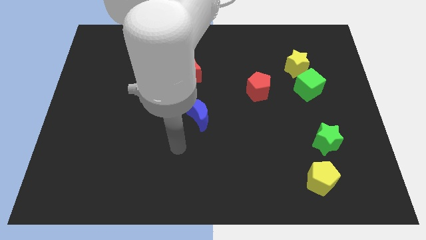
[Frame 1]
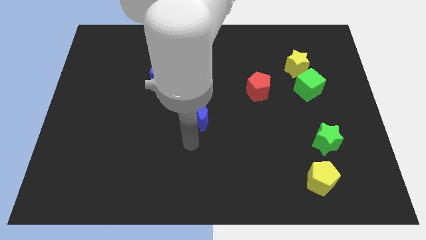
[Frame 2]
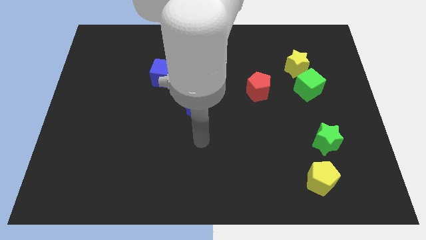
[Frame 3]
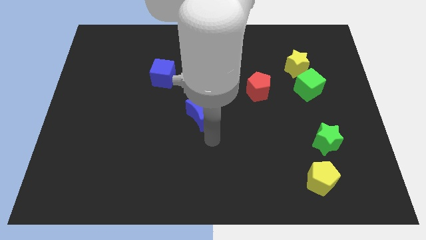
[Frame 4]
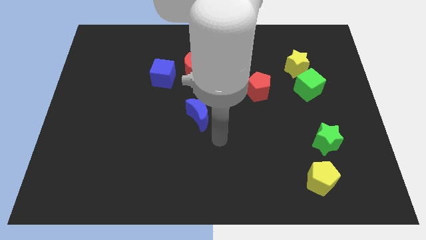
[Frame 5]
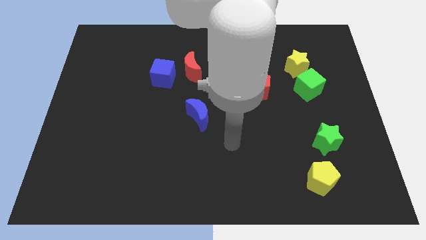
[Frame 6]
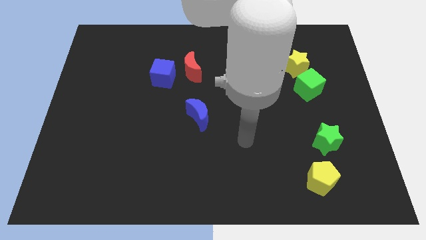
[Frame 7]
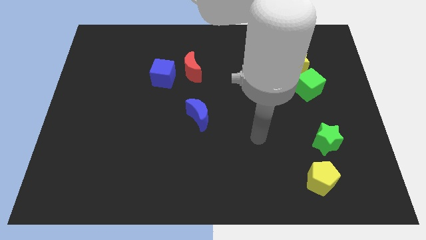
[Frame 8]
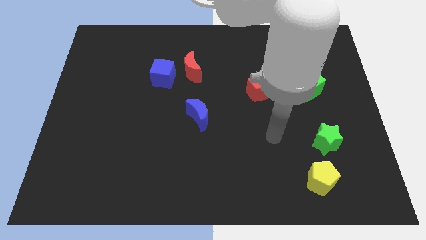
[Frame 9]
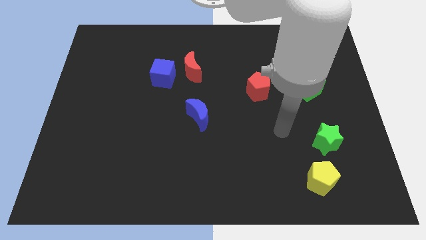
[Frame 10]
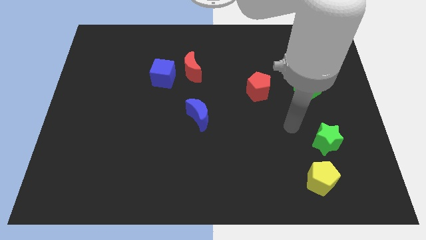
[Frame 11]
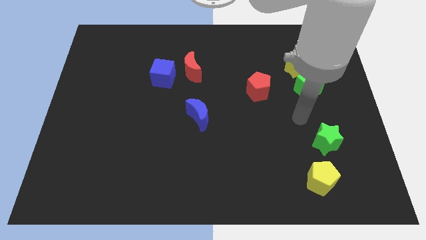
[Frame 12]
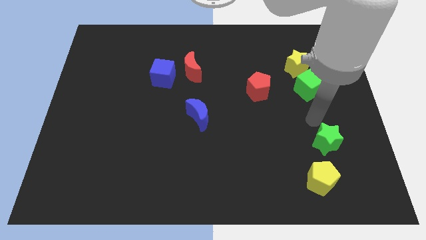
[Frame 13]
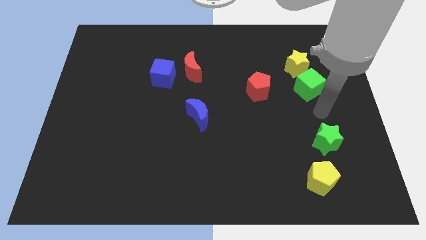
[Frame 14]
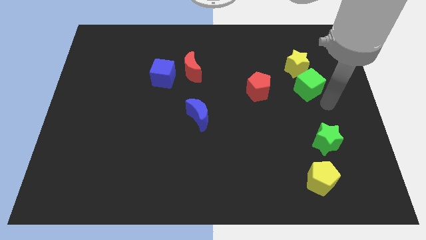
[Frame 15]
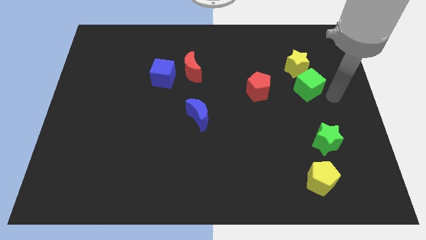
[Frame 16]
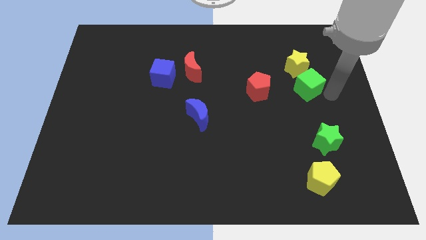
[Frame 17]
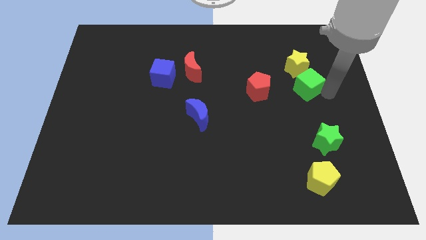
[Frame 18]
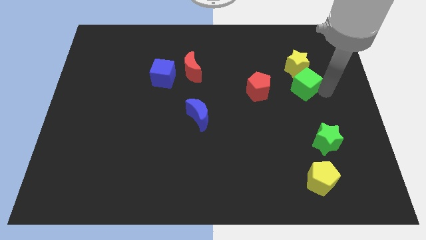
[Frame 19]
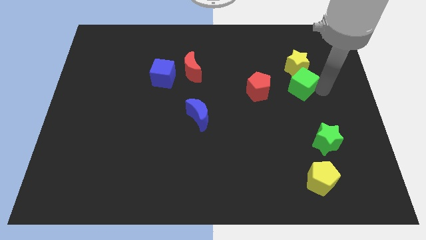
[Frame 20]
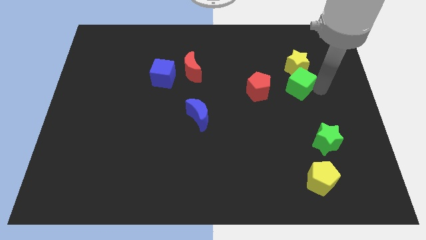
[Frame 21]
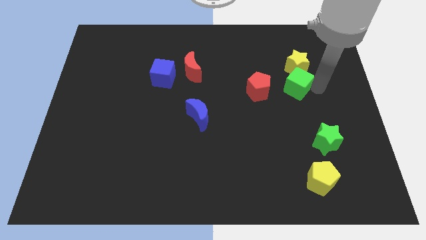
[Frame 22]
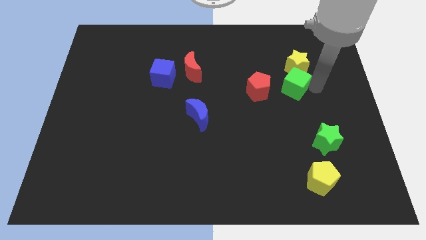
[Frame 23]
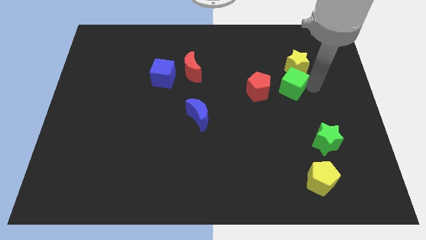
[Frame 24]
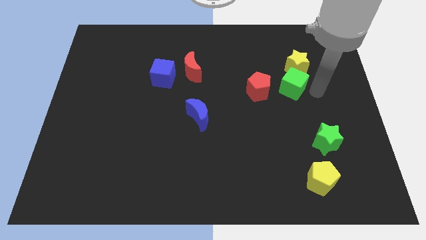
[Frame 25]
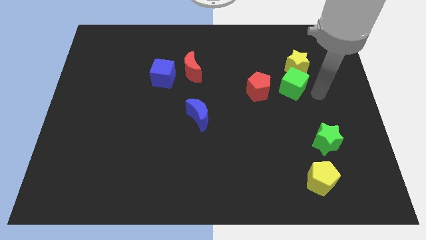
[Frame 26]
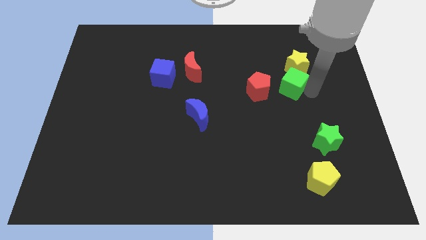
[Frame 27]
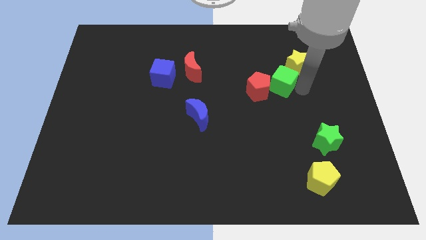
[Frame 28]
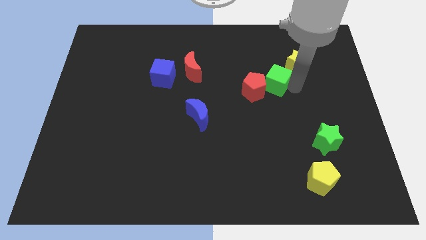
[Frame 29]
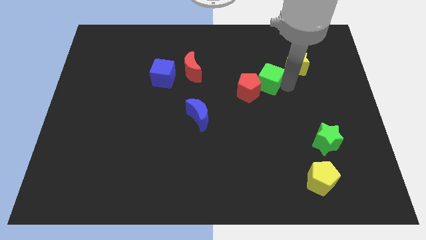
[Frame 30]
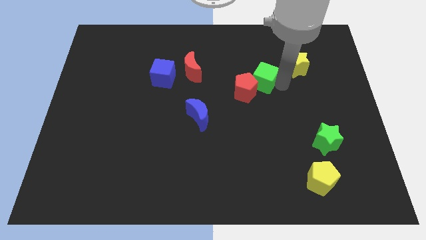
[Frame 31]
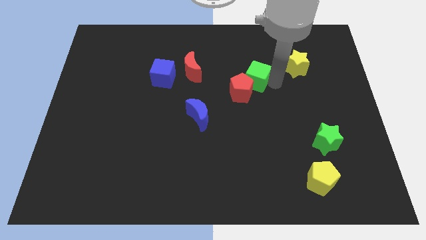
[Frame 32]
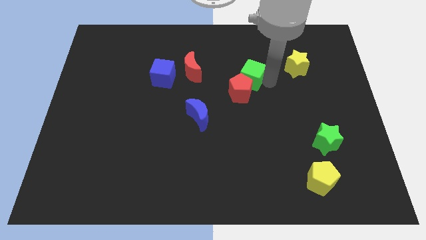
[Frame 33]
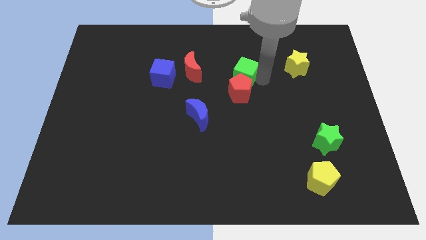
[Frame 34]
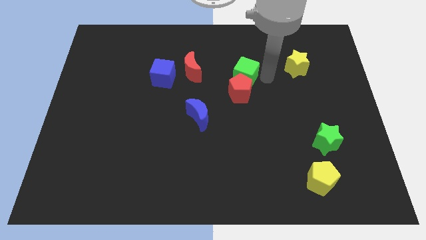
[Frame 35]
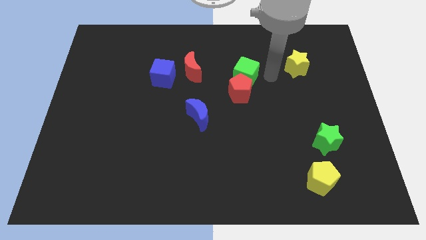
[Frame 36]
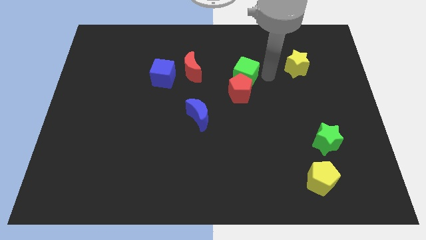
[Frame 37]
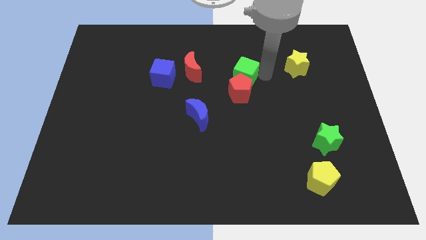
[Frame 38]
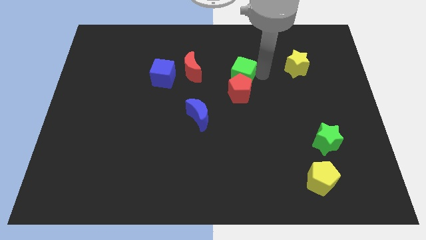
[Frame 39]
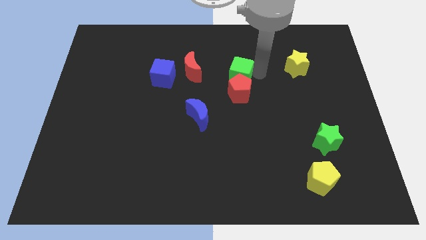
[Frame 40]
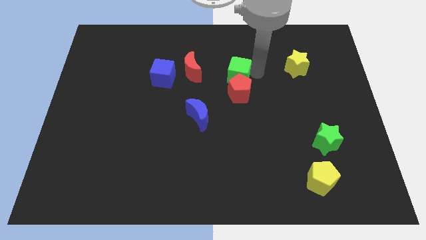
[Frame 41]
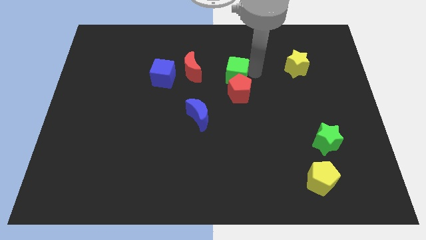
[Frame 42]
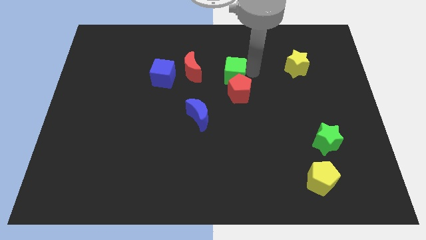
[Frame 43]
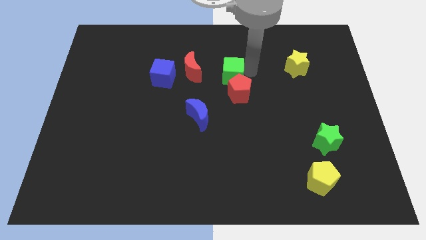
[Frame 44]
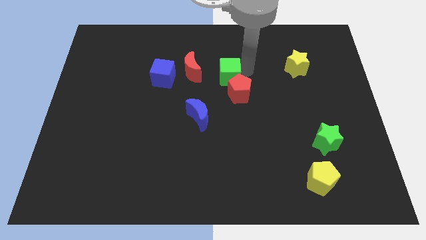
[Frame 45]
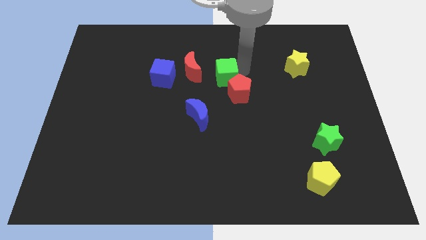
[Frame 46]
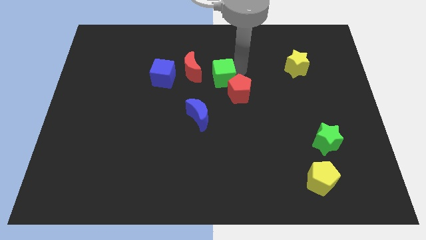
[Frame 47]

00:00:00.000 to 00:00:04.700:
push the green cube left

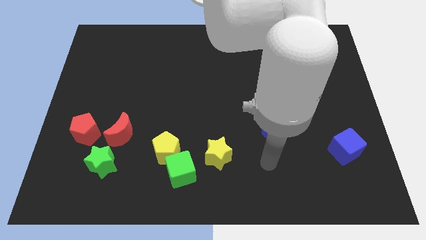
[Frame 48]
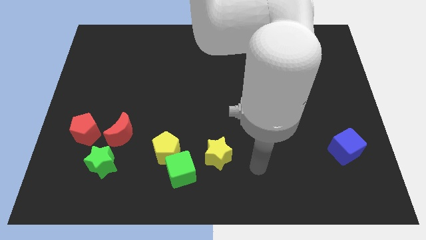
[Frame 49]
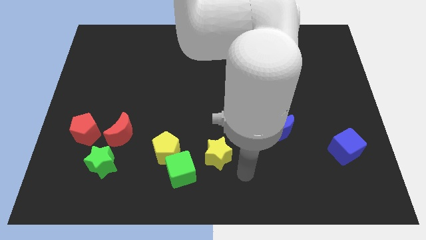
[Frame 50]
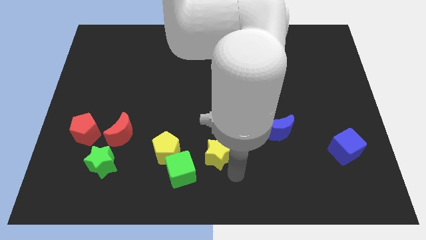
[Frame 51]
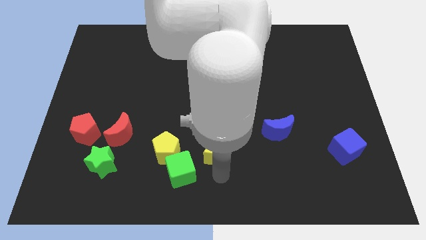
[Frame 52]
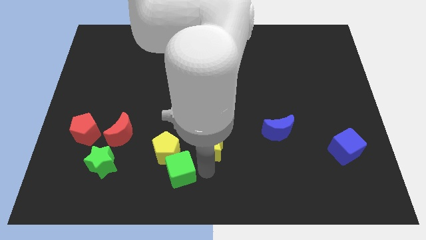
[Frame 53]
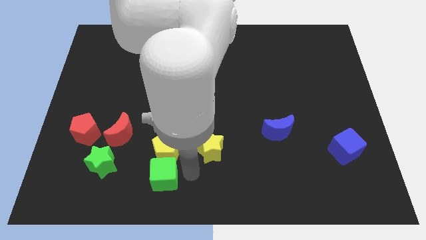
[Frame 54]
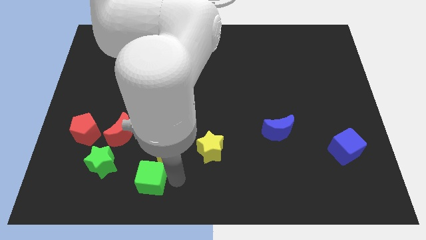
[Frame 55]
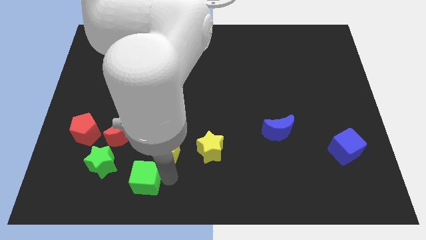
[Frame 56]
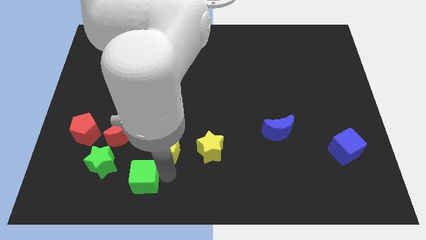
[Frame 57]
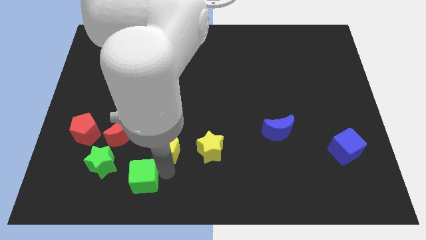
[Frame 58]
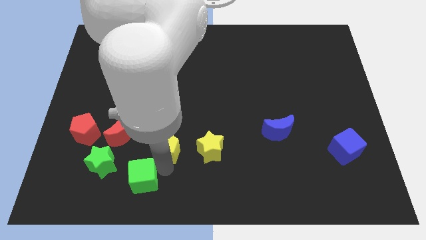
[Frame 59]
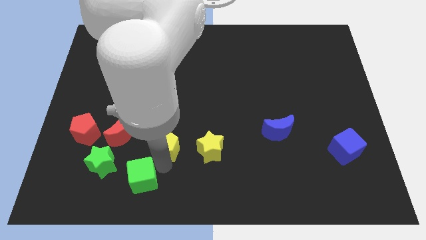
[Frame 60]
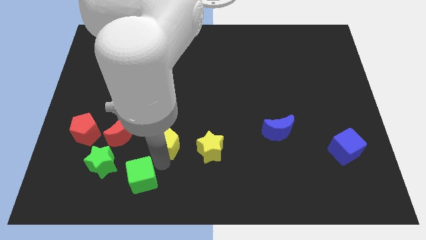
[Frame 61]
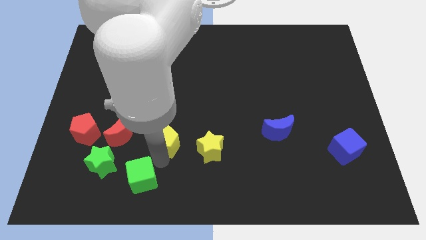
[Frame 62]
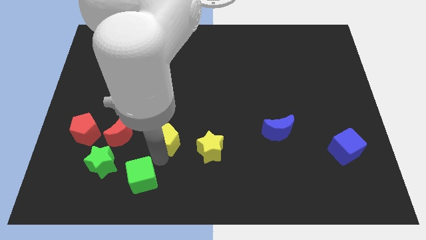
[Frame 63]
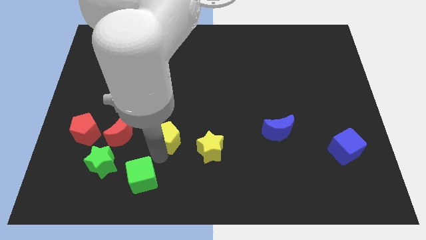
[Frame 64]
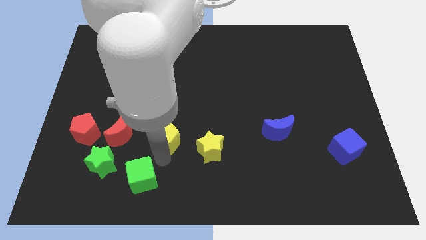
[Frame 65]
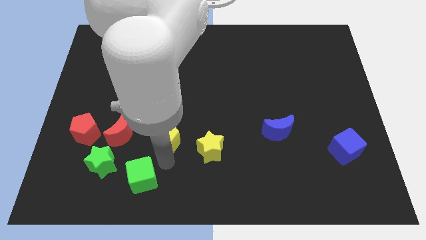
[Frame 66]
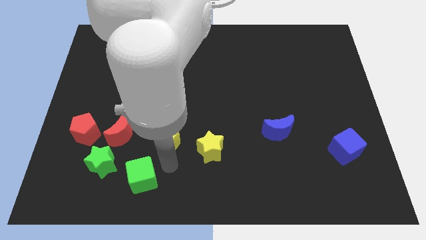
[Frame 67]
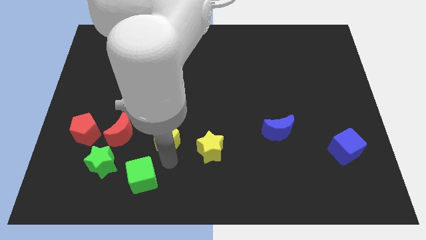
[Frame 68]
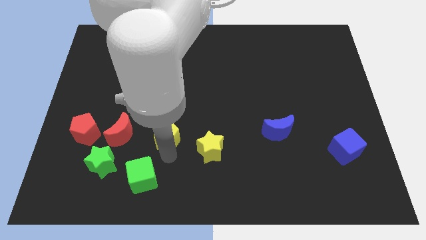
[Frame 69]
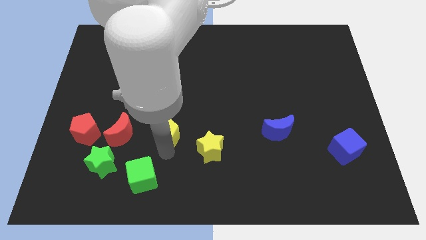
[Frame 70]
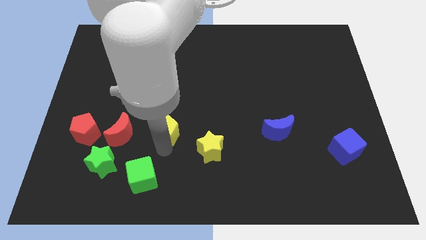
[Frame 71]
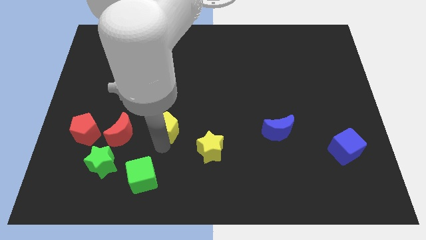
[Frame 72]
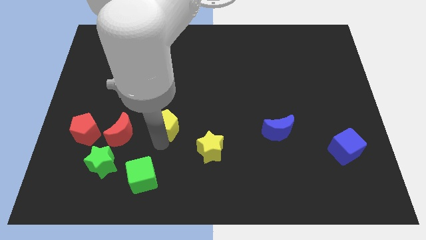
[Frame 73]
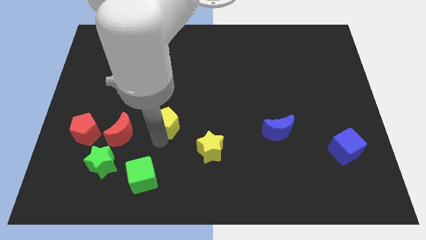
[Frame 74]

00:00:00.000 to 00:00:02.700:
move the yellow pentagon upwards a little bit

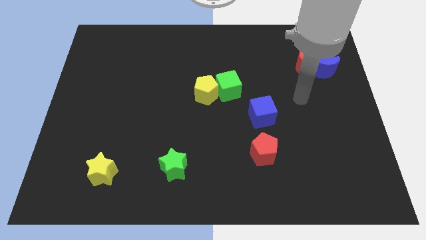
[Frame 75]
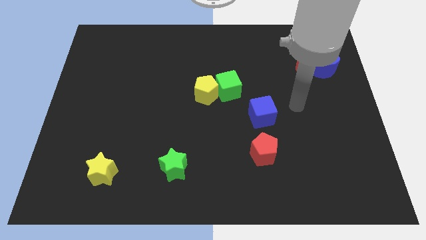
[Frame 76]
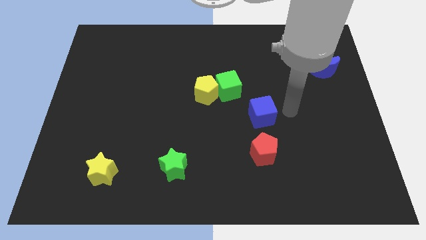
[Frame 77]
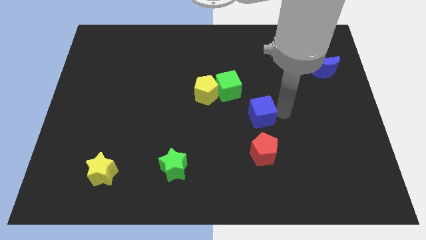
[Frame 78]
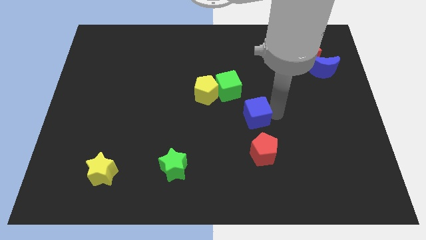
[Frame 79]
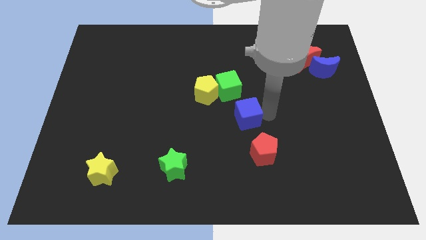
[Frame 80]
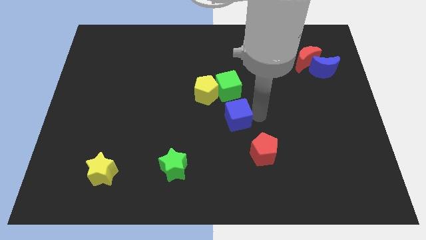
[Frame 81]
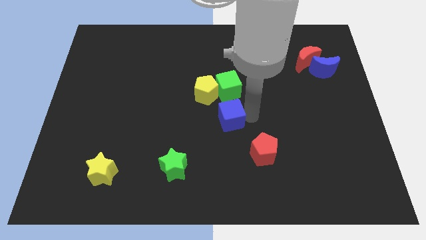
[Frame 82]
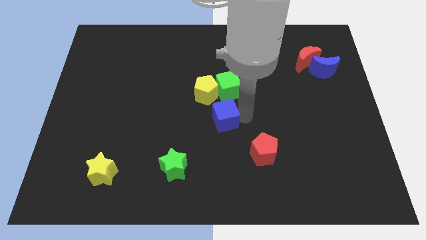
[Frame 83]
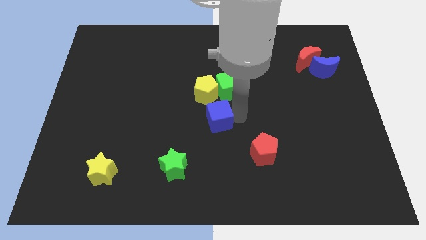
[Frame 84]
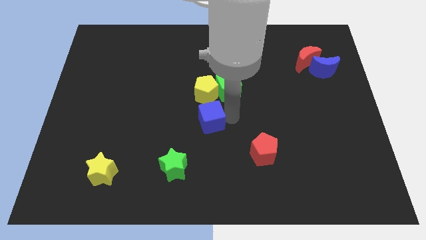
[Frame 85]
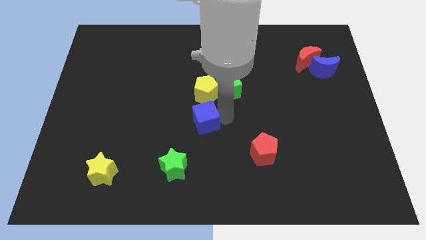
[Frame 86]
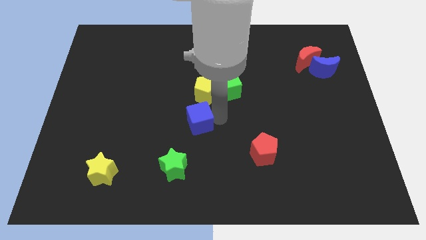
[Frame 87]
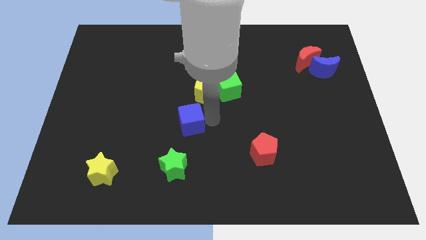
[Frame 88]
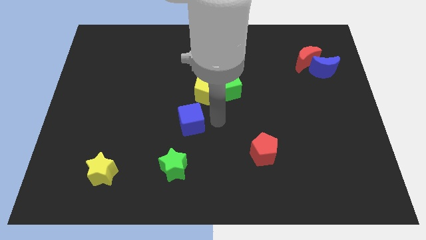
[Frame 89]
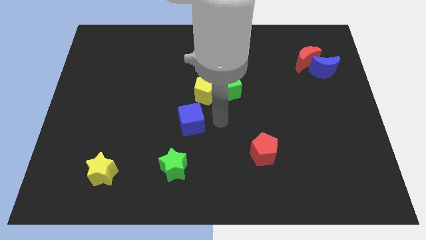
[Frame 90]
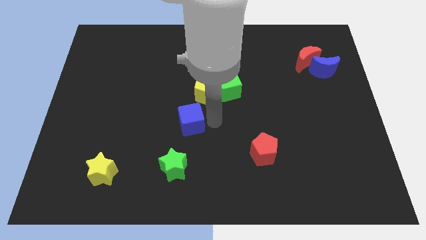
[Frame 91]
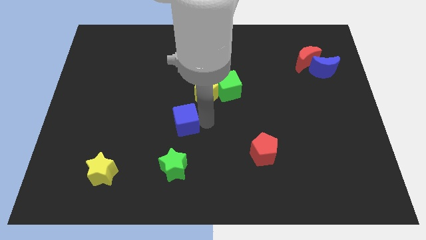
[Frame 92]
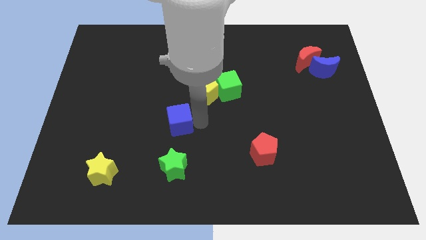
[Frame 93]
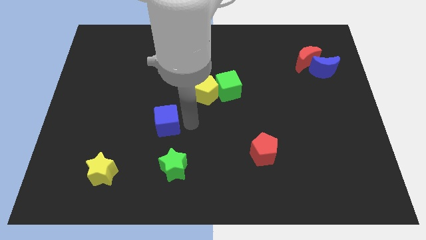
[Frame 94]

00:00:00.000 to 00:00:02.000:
slide the blue cube to the left
